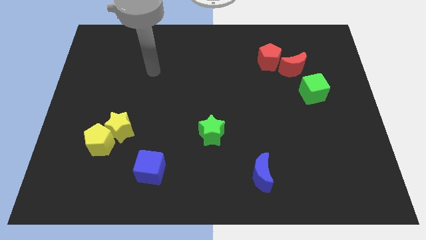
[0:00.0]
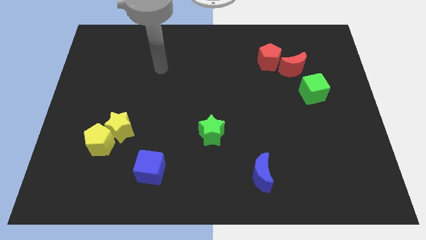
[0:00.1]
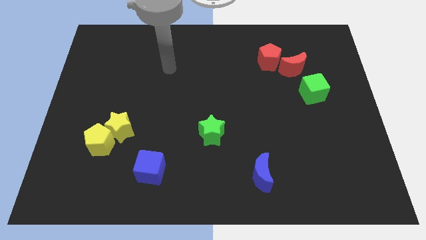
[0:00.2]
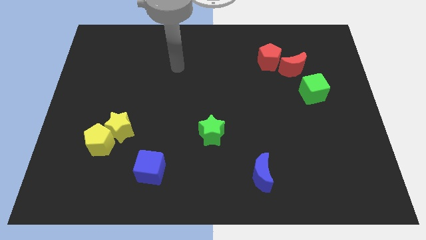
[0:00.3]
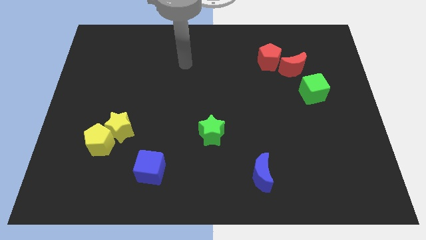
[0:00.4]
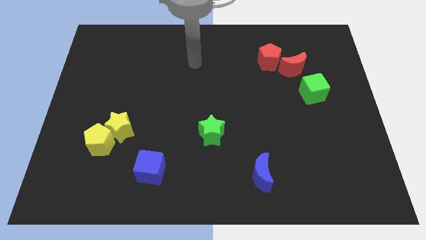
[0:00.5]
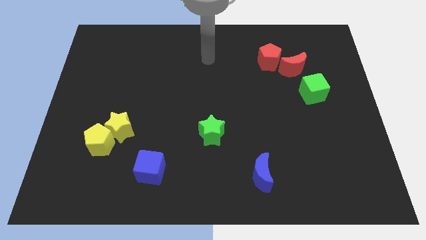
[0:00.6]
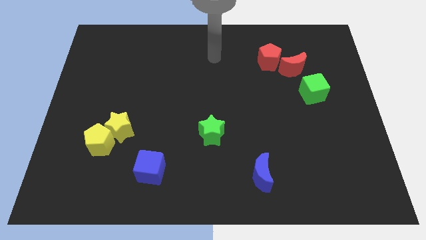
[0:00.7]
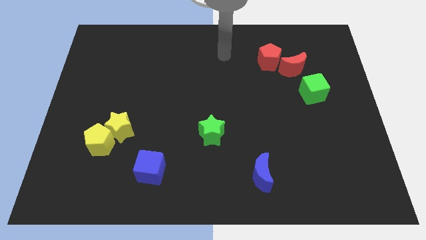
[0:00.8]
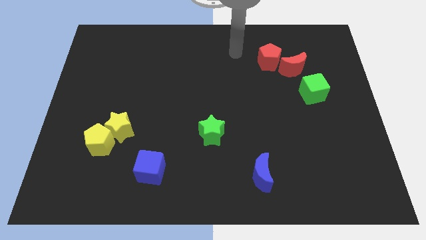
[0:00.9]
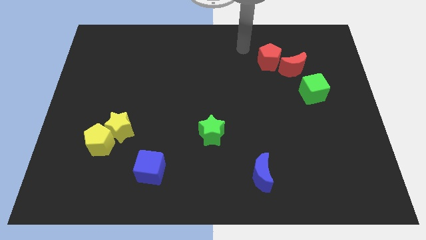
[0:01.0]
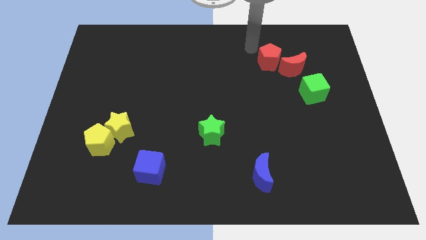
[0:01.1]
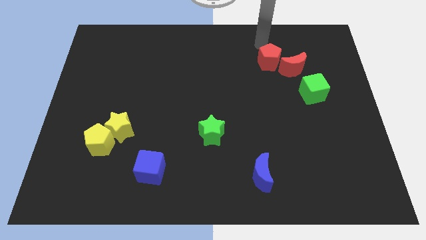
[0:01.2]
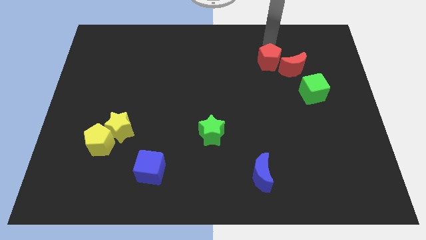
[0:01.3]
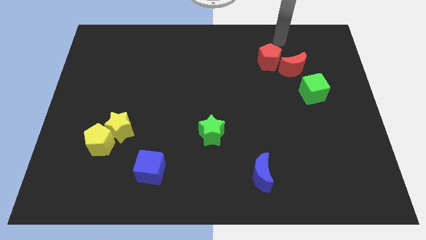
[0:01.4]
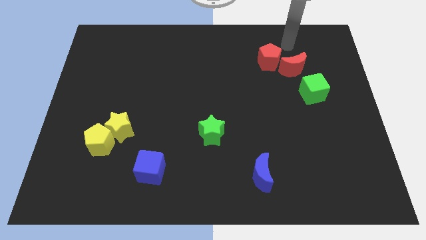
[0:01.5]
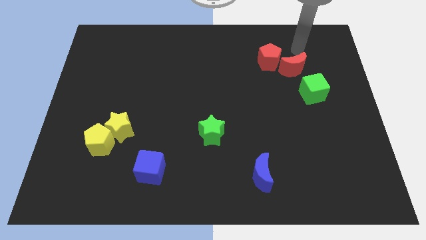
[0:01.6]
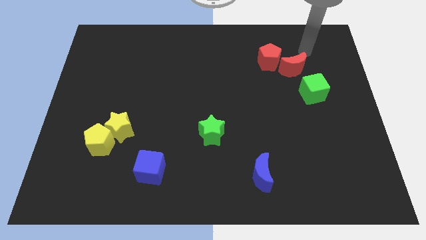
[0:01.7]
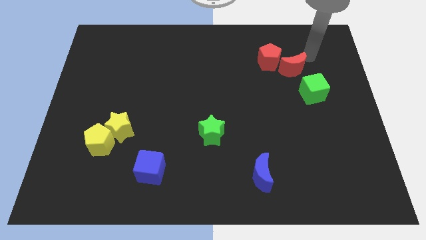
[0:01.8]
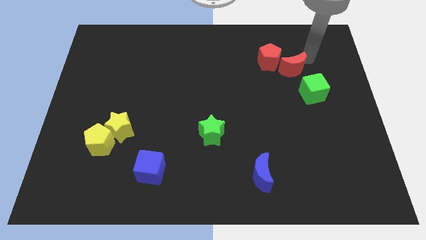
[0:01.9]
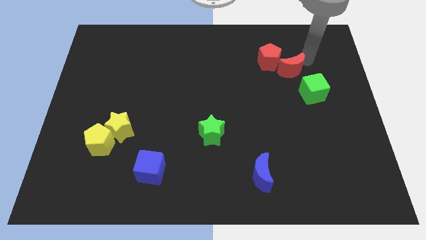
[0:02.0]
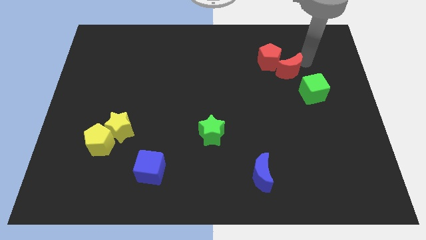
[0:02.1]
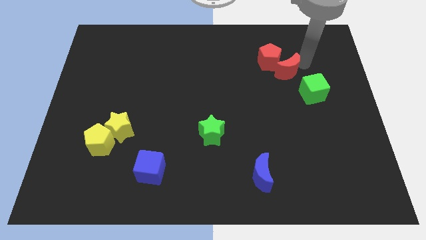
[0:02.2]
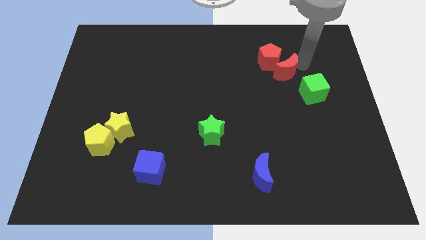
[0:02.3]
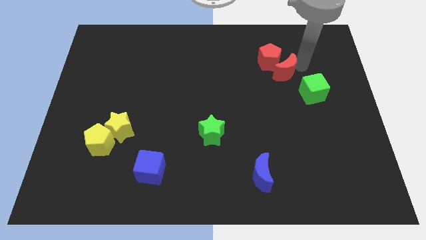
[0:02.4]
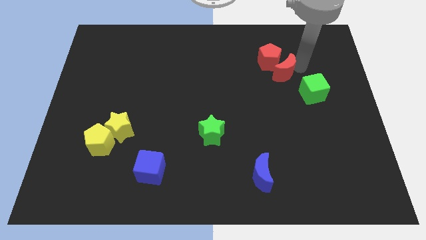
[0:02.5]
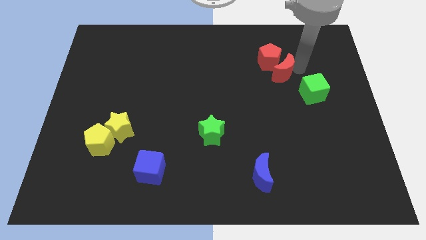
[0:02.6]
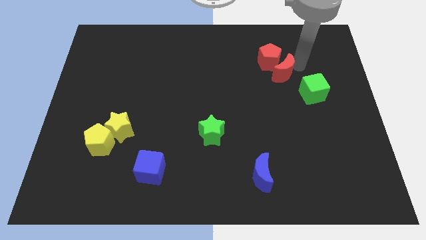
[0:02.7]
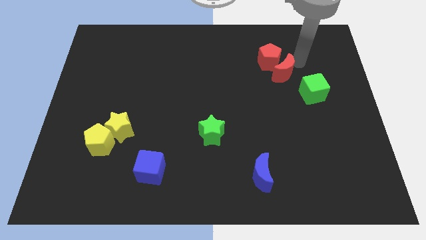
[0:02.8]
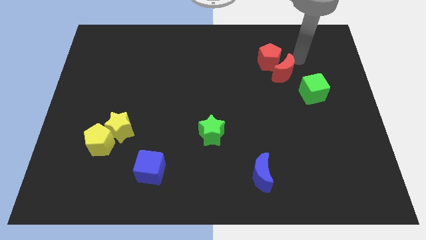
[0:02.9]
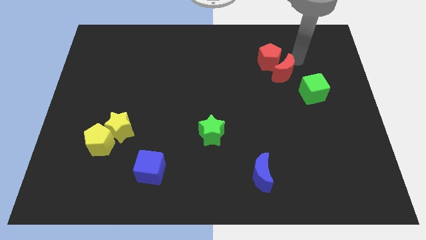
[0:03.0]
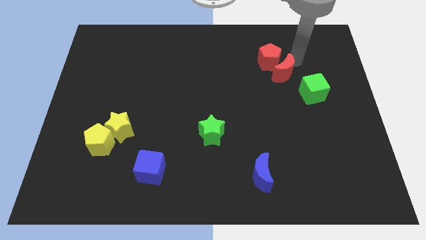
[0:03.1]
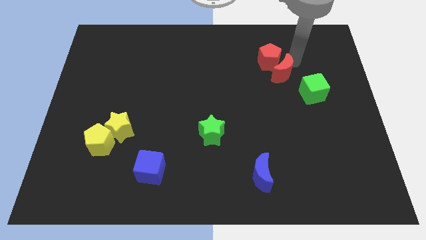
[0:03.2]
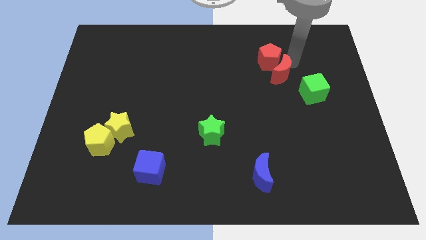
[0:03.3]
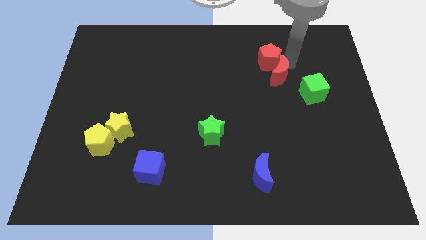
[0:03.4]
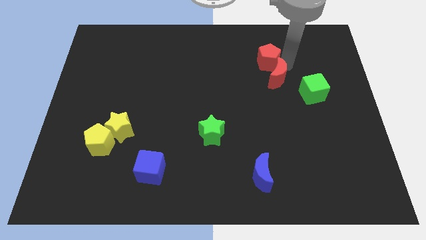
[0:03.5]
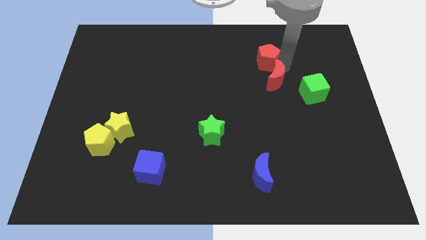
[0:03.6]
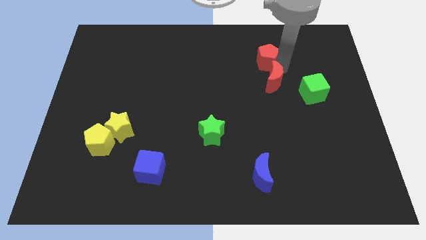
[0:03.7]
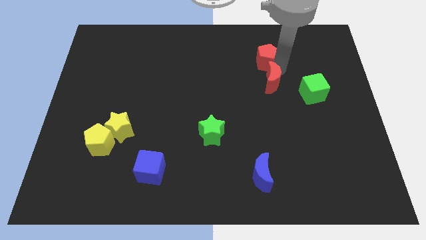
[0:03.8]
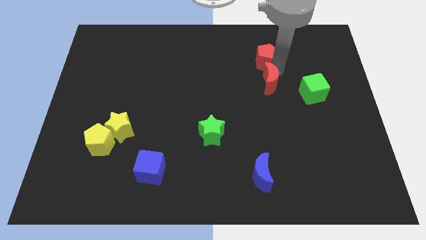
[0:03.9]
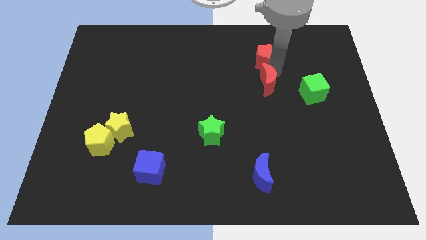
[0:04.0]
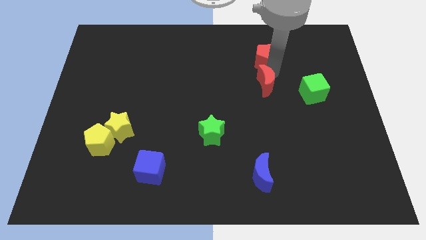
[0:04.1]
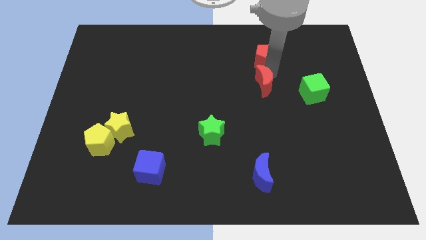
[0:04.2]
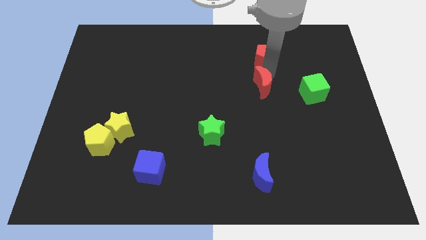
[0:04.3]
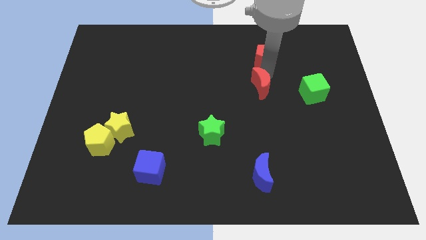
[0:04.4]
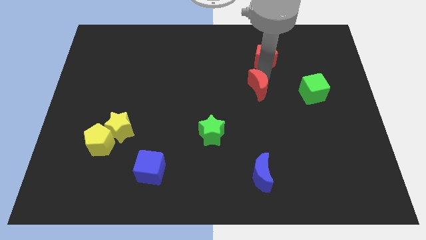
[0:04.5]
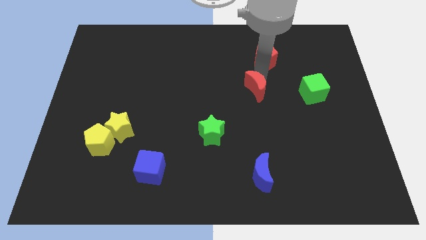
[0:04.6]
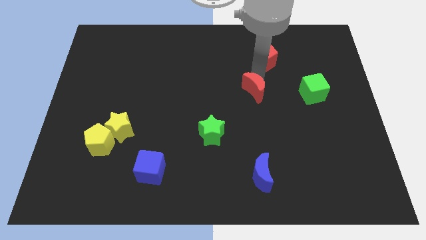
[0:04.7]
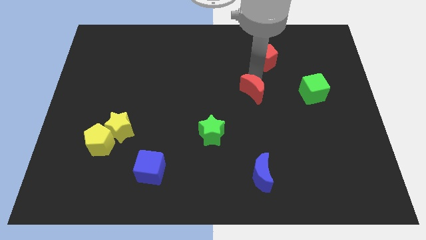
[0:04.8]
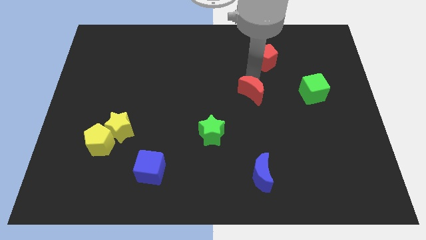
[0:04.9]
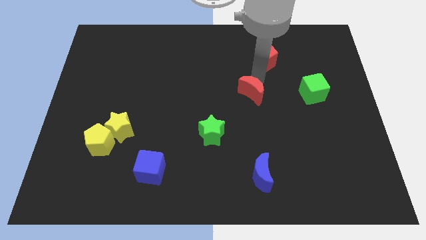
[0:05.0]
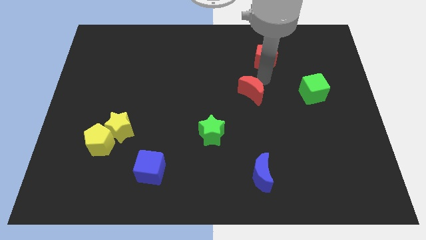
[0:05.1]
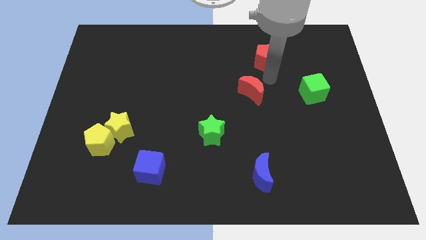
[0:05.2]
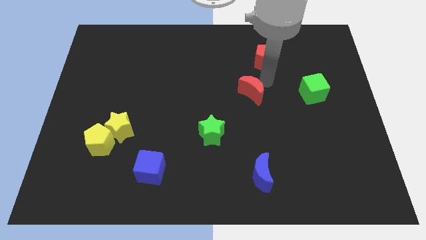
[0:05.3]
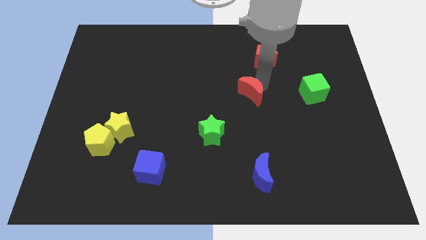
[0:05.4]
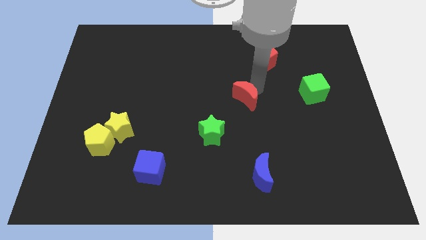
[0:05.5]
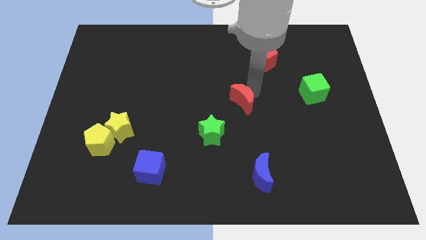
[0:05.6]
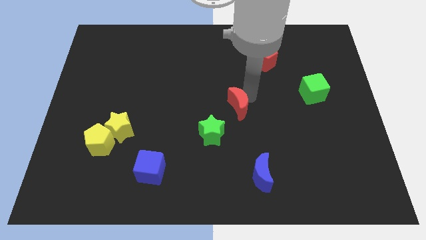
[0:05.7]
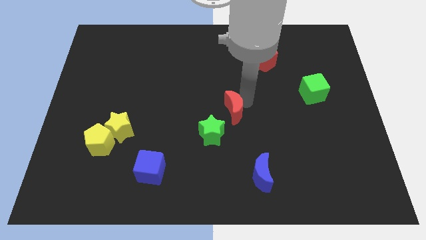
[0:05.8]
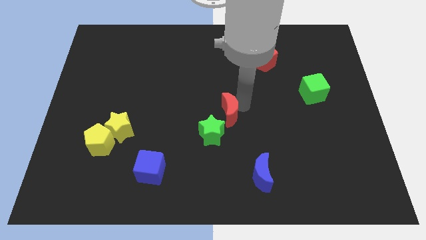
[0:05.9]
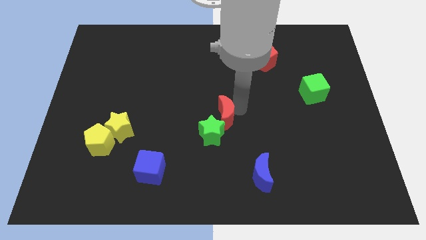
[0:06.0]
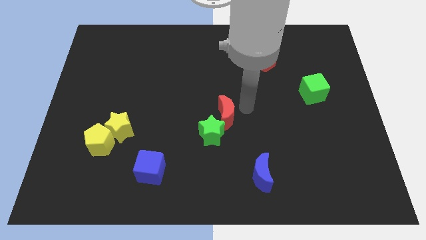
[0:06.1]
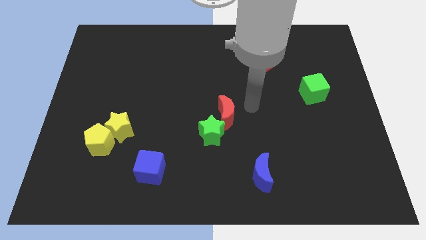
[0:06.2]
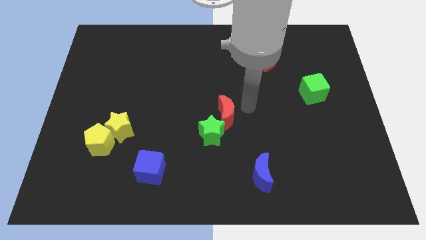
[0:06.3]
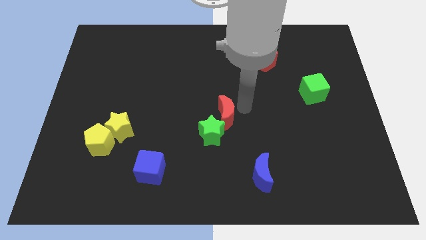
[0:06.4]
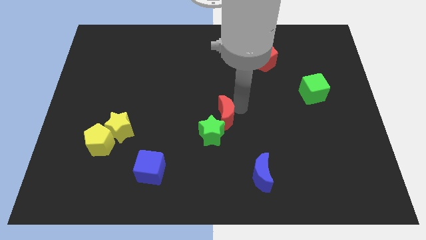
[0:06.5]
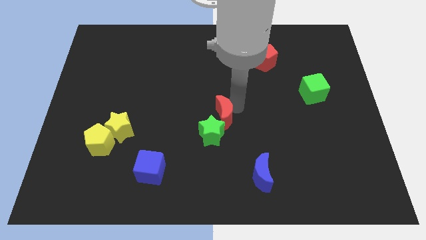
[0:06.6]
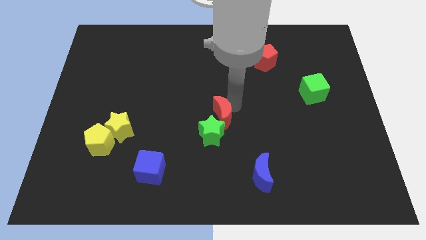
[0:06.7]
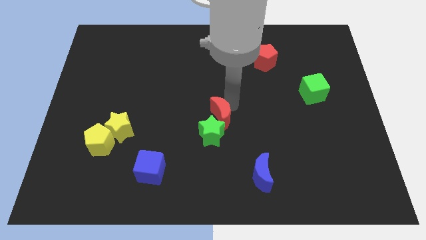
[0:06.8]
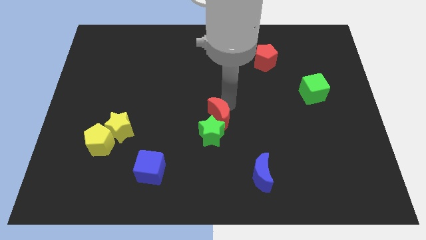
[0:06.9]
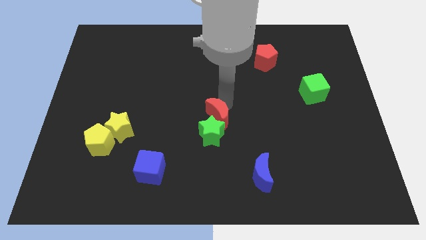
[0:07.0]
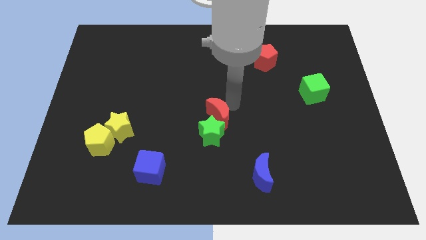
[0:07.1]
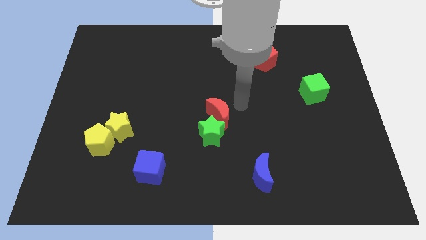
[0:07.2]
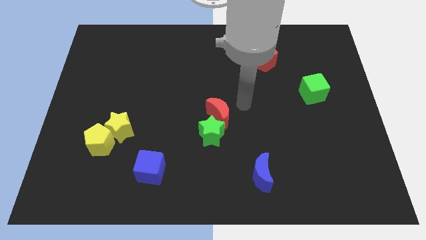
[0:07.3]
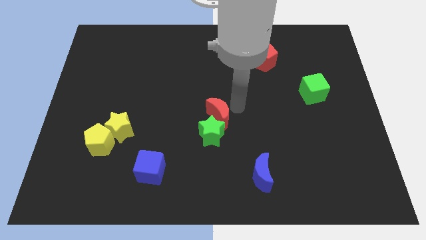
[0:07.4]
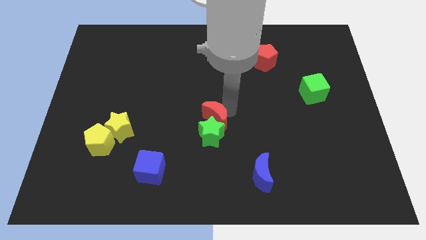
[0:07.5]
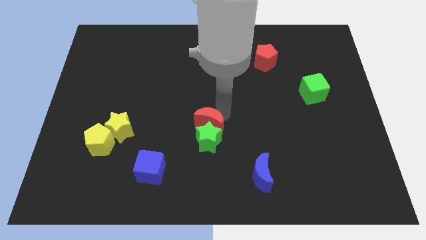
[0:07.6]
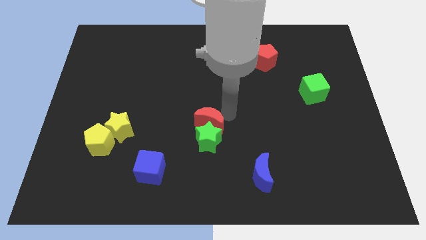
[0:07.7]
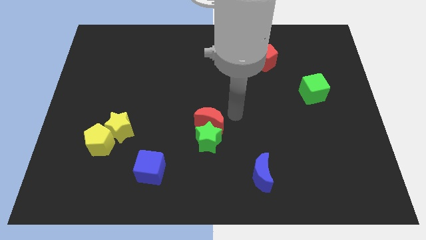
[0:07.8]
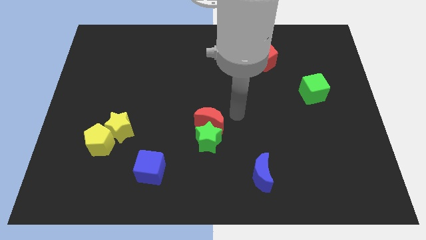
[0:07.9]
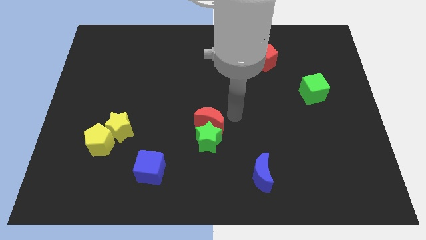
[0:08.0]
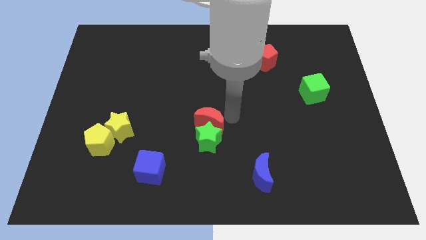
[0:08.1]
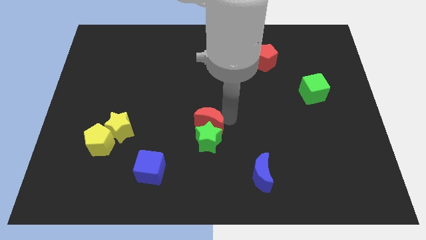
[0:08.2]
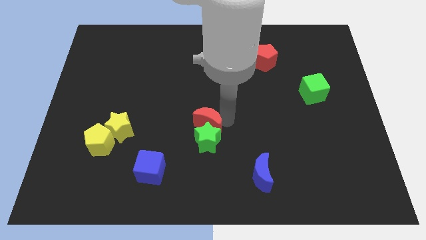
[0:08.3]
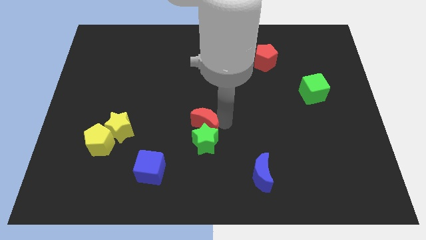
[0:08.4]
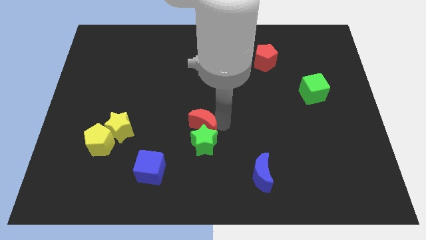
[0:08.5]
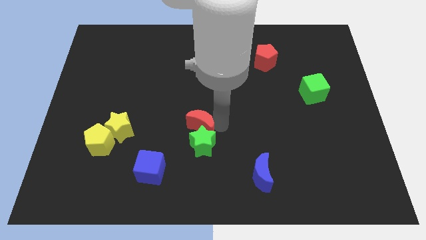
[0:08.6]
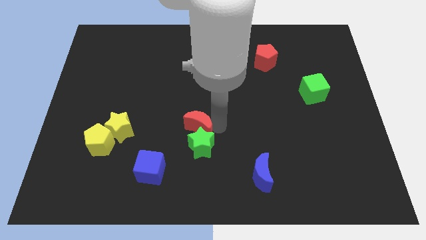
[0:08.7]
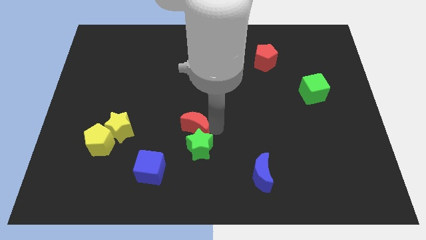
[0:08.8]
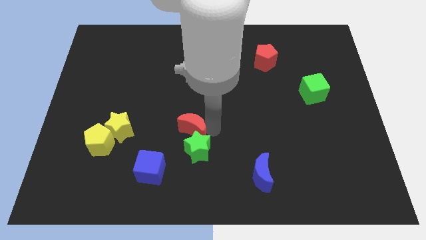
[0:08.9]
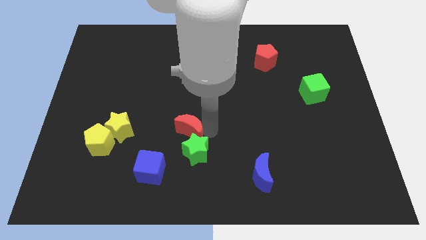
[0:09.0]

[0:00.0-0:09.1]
move the red moon diagonally up and to the right of the blue cube
